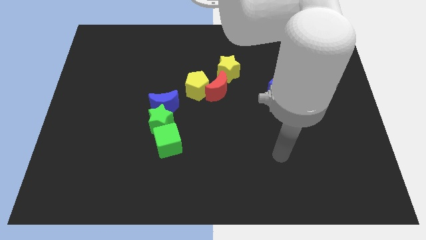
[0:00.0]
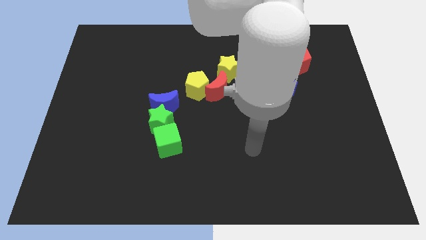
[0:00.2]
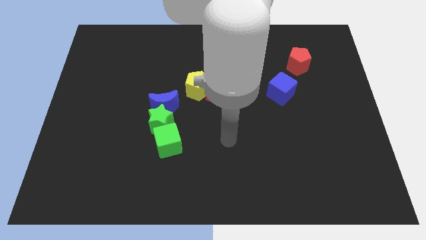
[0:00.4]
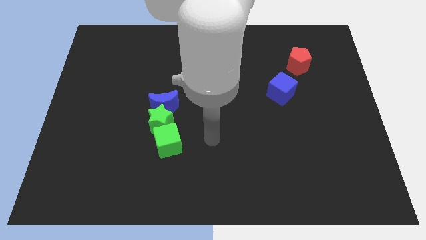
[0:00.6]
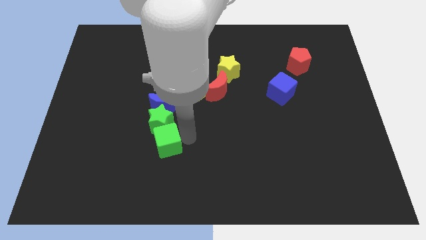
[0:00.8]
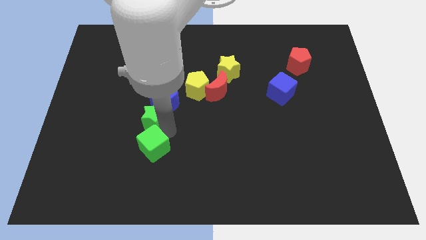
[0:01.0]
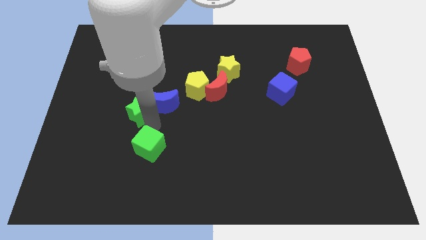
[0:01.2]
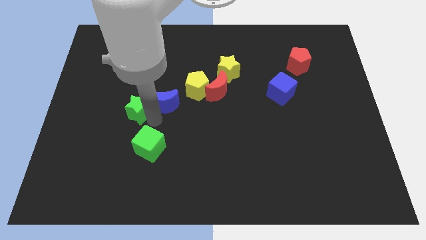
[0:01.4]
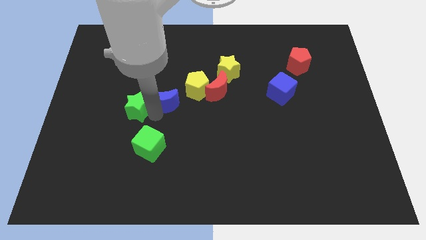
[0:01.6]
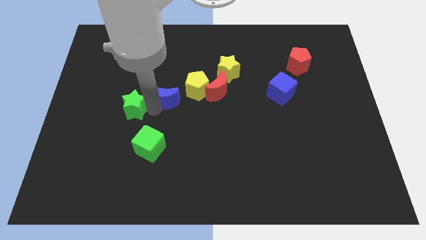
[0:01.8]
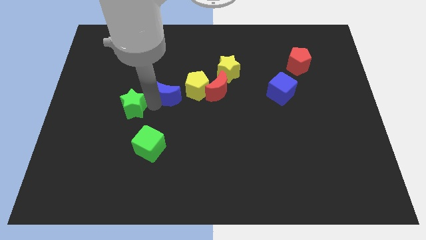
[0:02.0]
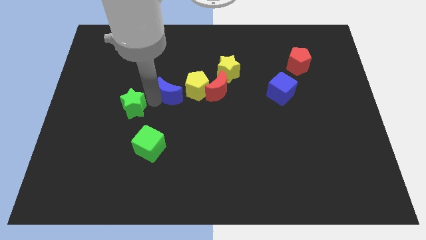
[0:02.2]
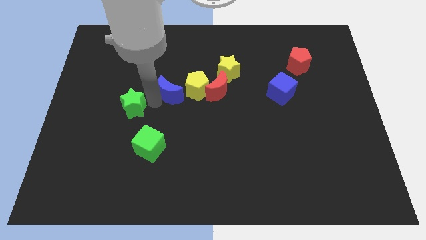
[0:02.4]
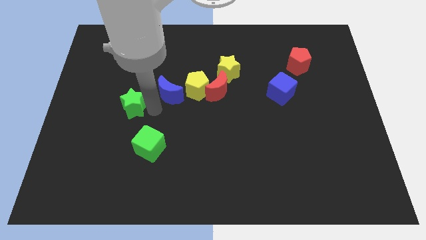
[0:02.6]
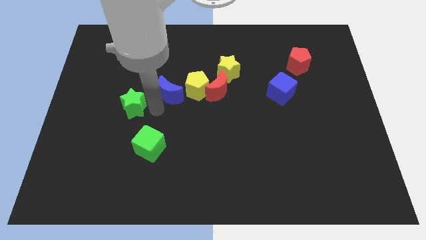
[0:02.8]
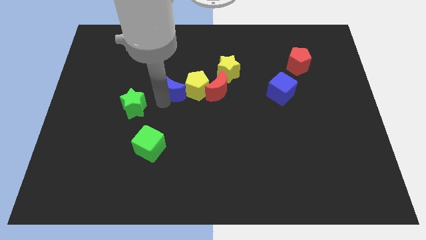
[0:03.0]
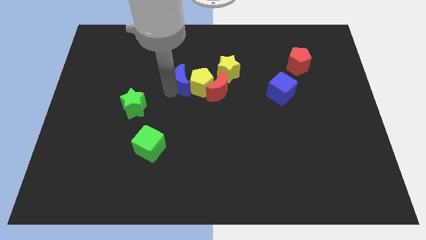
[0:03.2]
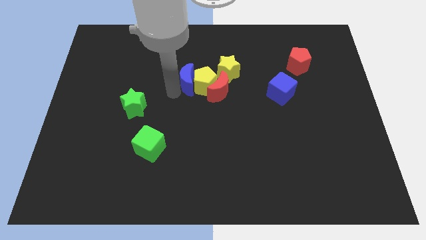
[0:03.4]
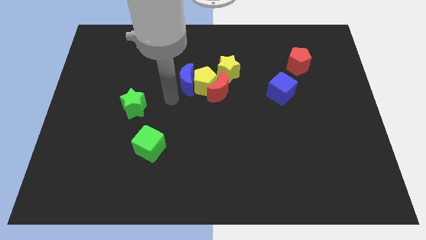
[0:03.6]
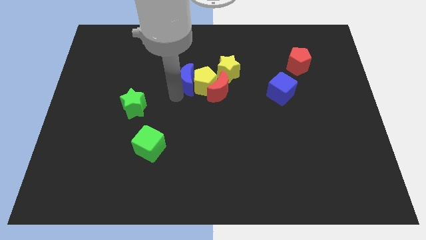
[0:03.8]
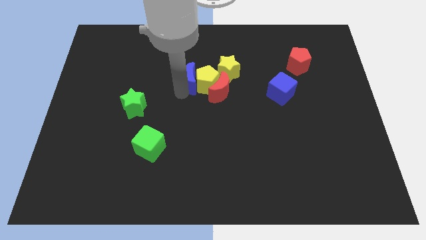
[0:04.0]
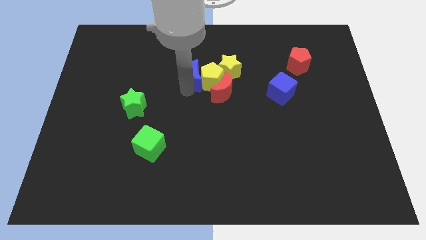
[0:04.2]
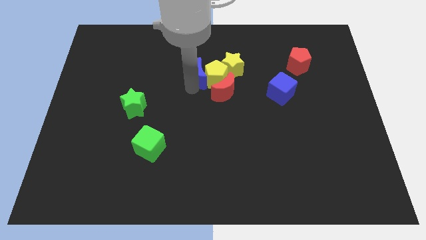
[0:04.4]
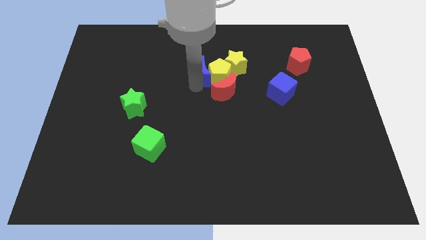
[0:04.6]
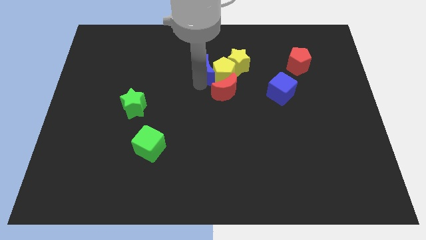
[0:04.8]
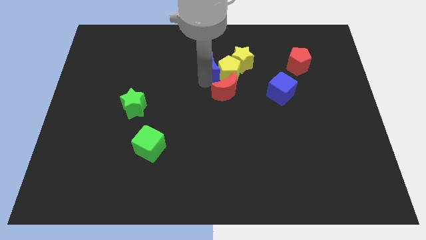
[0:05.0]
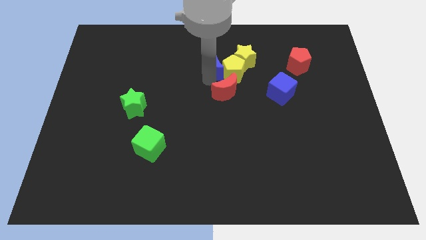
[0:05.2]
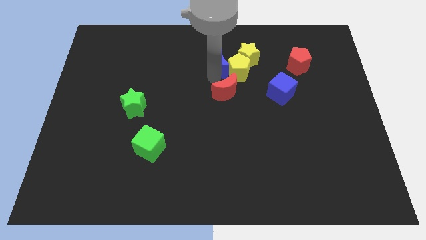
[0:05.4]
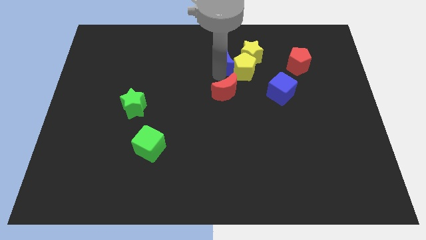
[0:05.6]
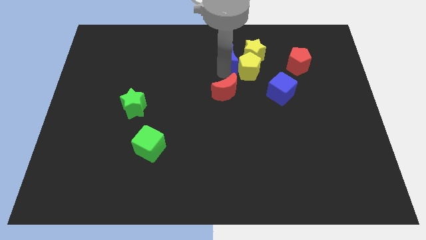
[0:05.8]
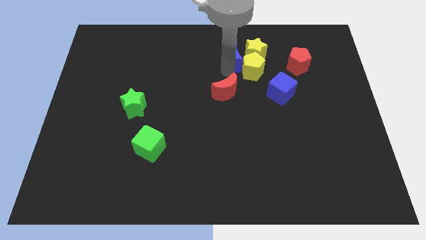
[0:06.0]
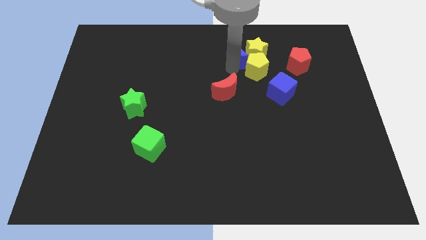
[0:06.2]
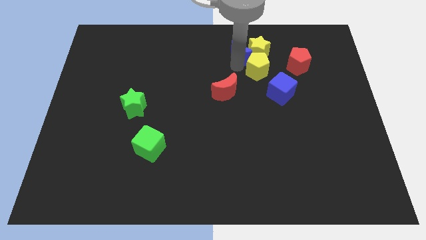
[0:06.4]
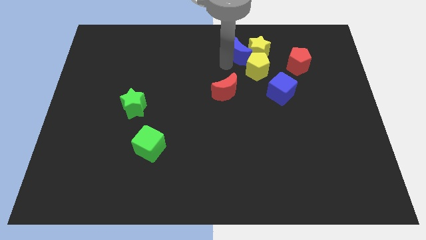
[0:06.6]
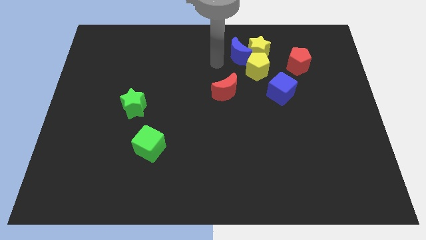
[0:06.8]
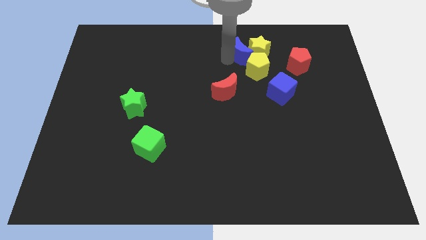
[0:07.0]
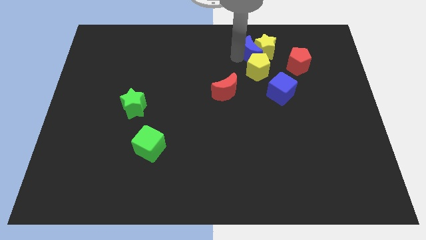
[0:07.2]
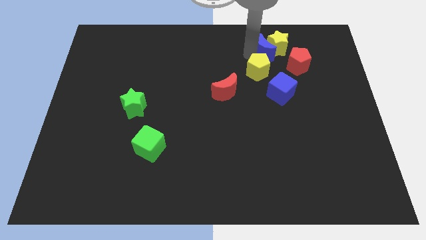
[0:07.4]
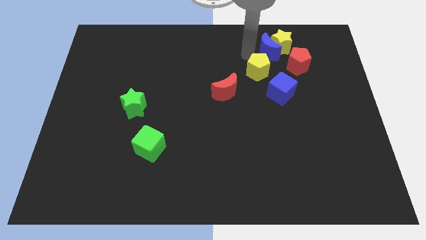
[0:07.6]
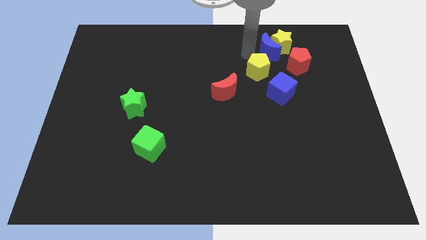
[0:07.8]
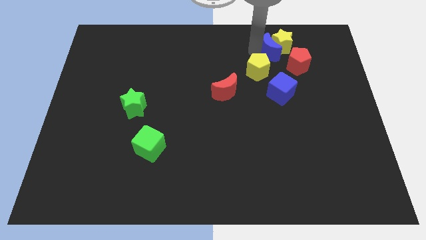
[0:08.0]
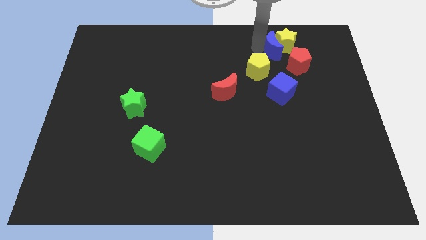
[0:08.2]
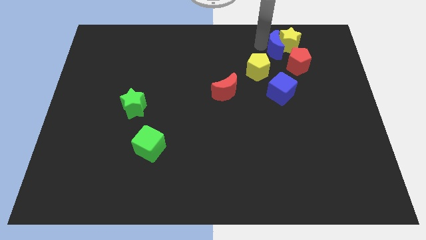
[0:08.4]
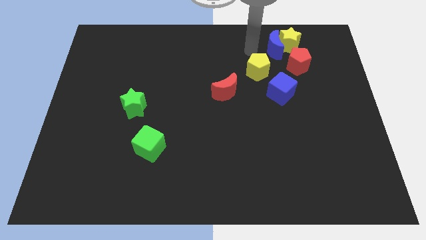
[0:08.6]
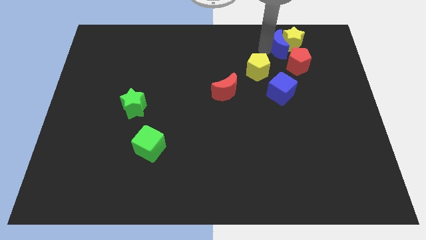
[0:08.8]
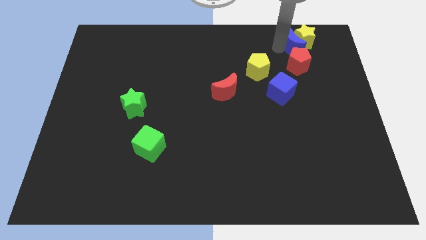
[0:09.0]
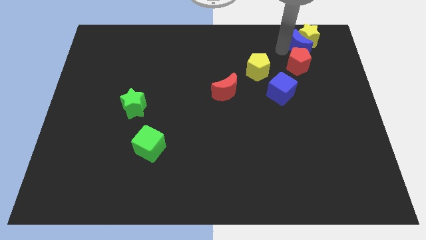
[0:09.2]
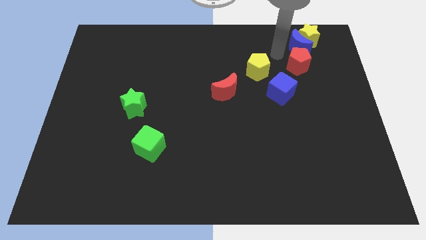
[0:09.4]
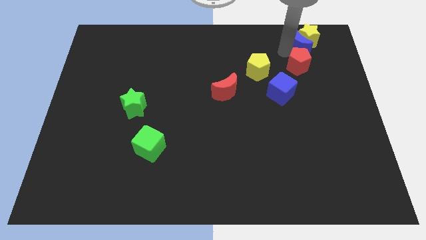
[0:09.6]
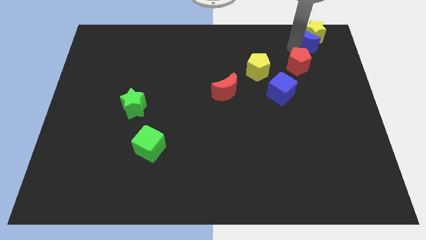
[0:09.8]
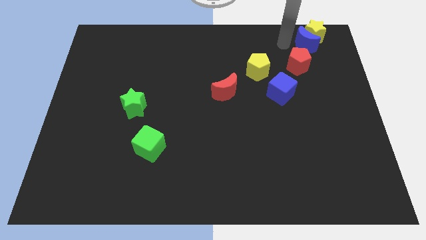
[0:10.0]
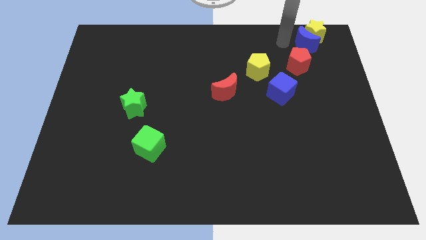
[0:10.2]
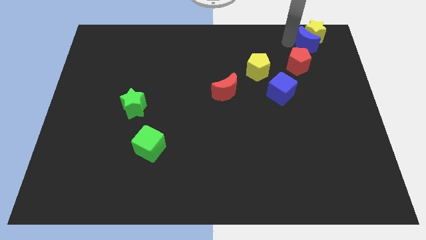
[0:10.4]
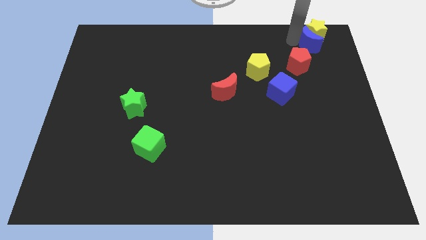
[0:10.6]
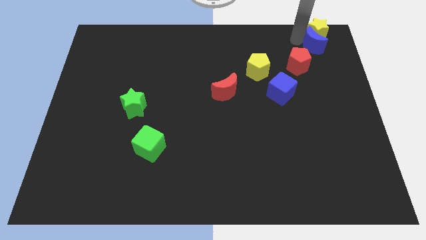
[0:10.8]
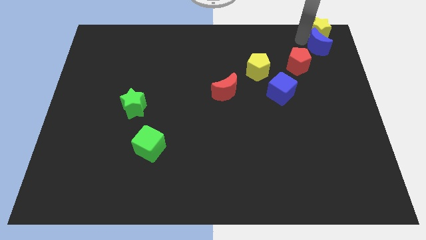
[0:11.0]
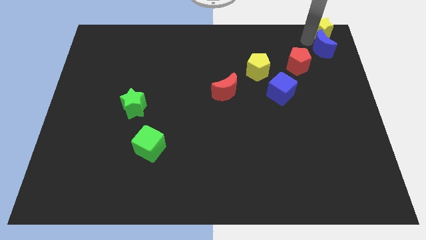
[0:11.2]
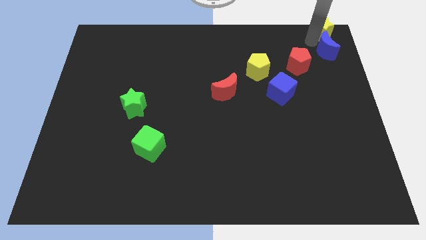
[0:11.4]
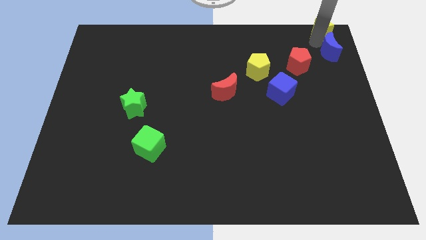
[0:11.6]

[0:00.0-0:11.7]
put the blue moon to the upper right corner

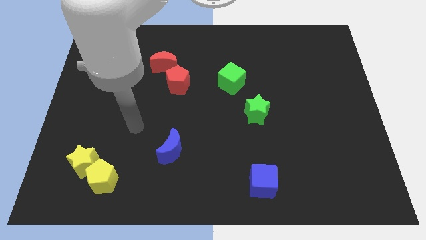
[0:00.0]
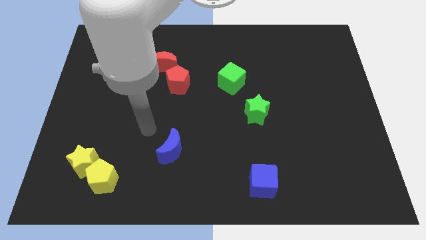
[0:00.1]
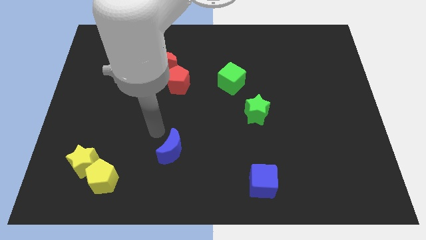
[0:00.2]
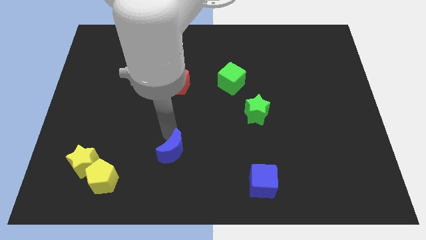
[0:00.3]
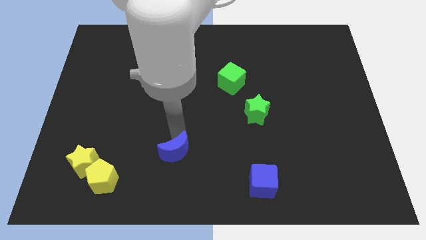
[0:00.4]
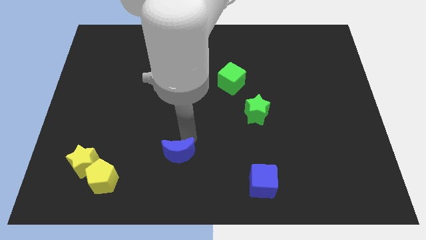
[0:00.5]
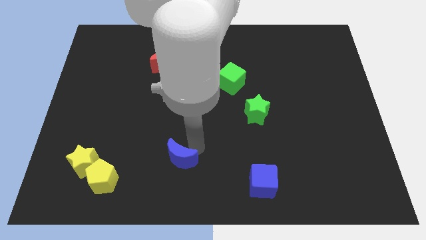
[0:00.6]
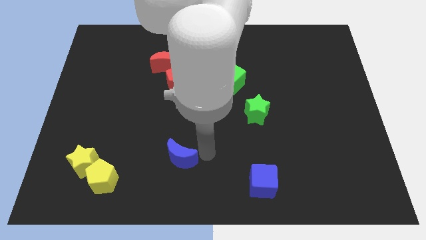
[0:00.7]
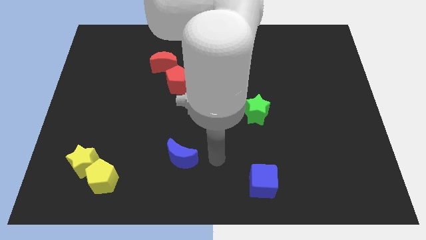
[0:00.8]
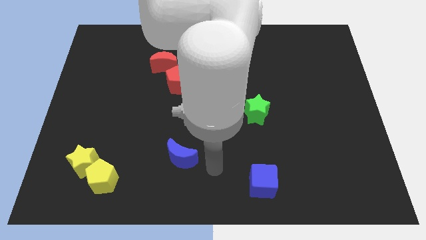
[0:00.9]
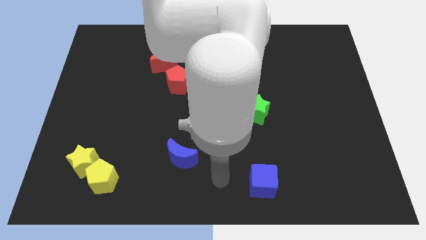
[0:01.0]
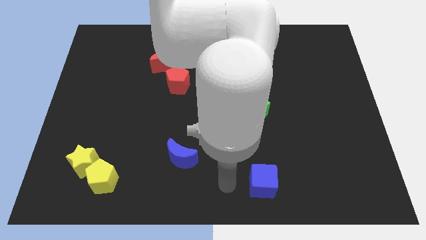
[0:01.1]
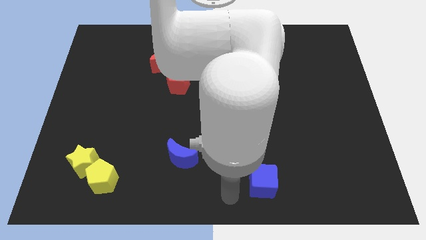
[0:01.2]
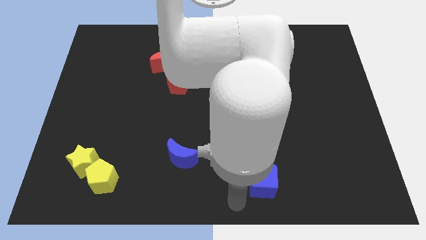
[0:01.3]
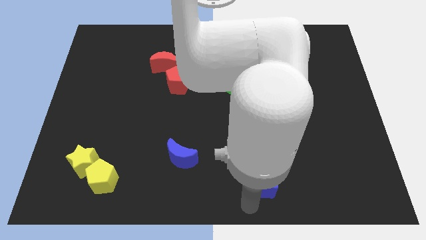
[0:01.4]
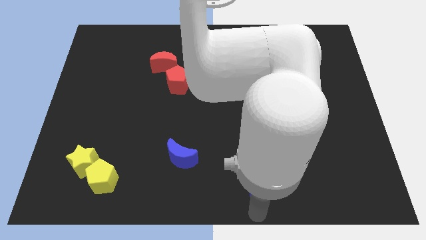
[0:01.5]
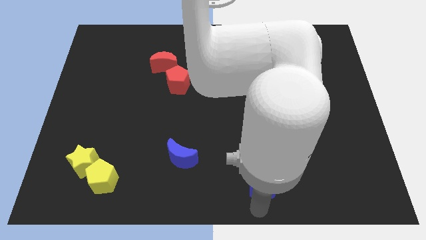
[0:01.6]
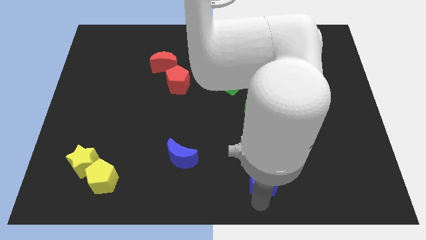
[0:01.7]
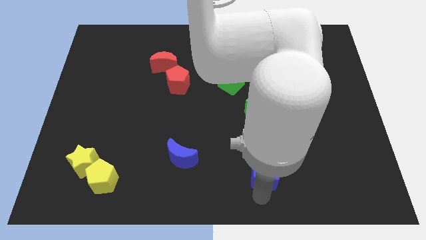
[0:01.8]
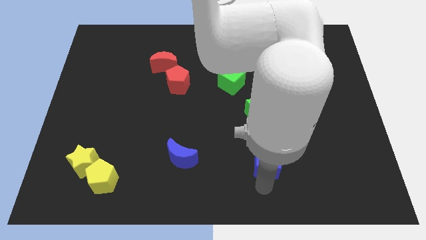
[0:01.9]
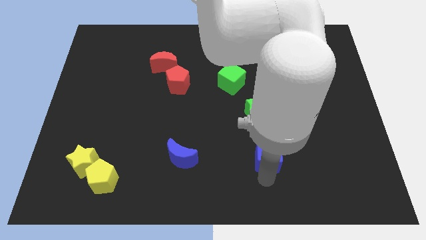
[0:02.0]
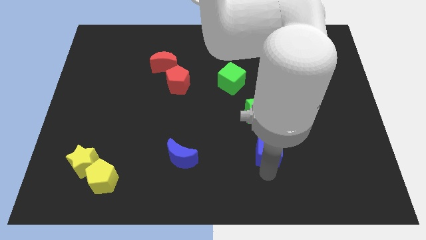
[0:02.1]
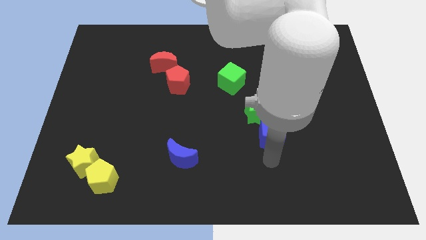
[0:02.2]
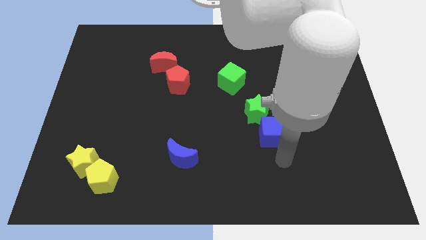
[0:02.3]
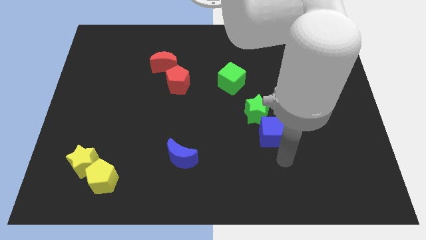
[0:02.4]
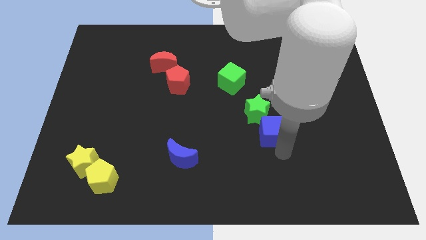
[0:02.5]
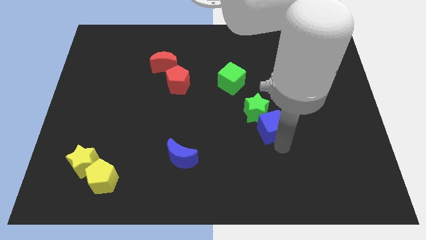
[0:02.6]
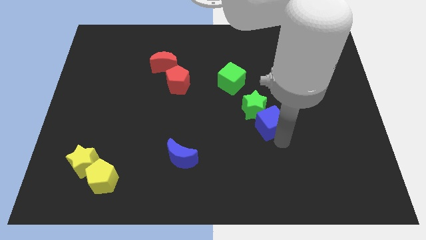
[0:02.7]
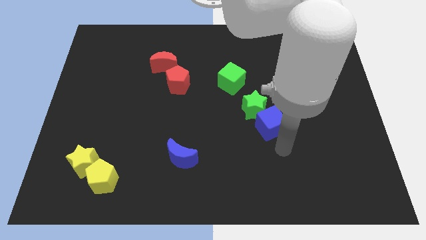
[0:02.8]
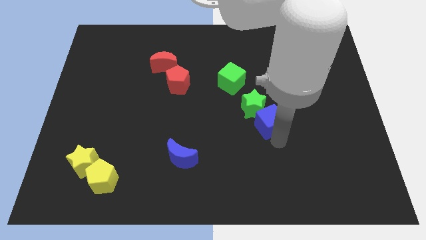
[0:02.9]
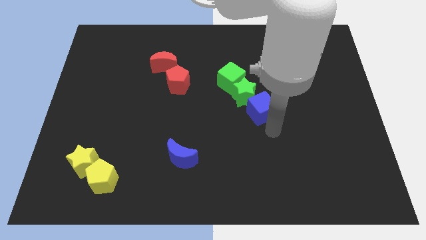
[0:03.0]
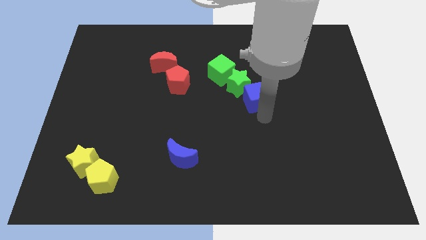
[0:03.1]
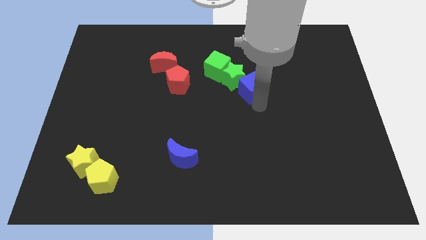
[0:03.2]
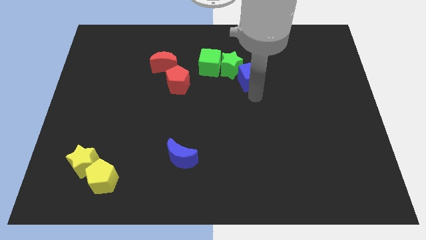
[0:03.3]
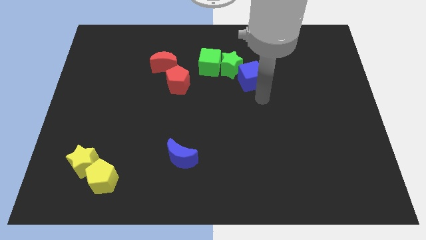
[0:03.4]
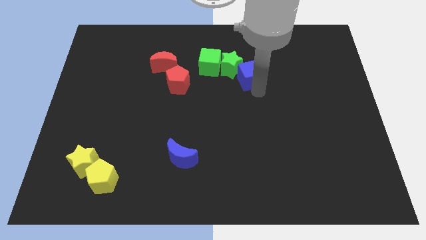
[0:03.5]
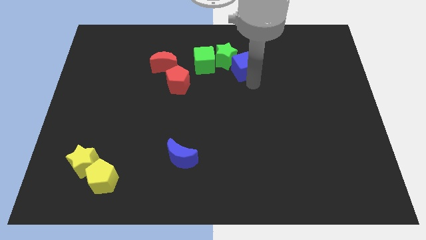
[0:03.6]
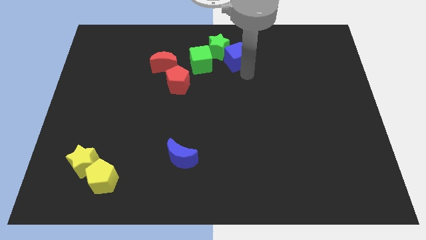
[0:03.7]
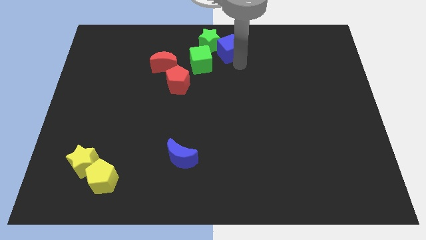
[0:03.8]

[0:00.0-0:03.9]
push the blue cube to the top
